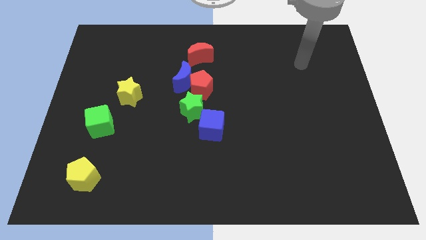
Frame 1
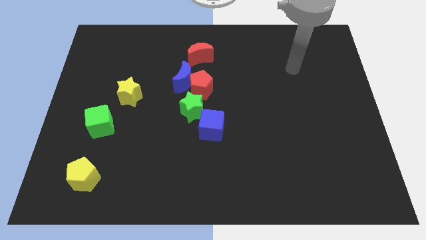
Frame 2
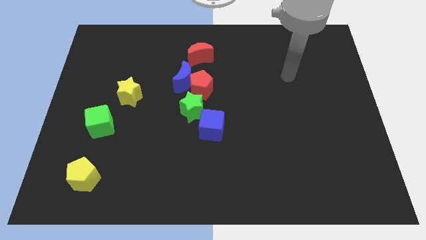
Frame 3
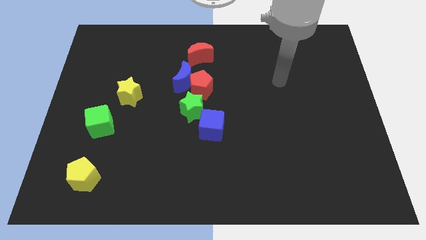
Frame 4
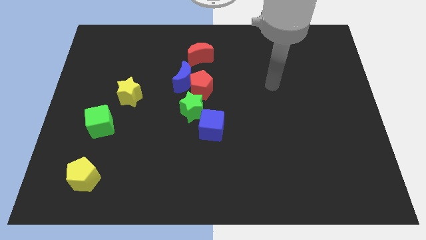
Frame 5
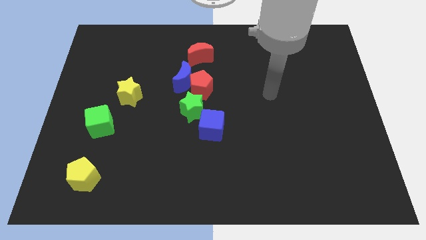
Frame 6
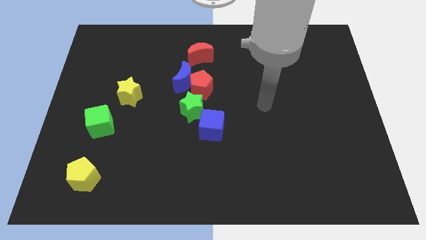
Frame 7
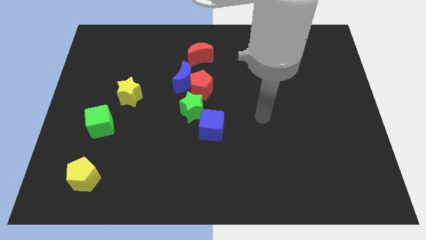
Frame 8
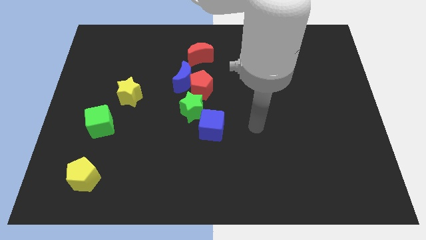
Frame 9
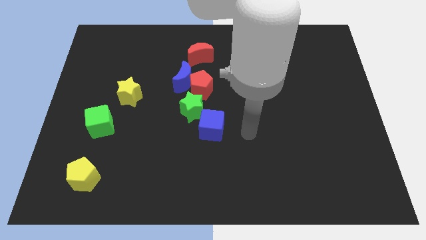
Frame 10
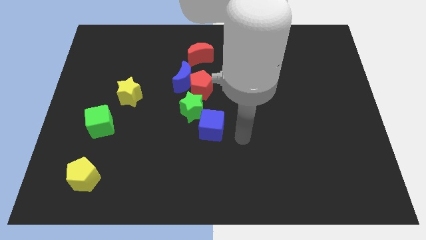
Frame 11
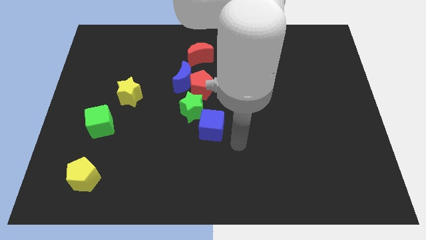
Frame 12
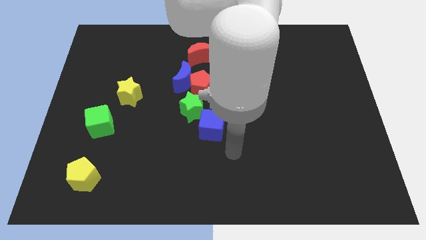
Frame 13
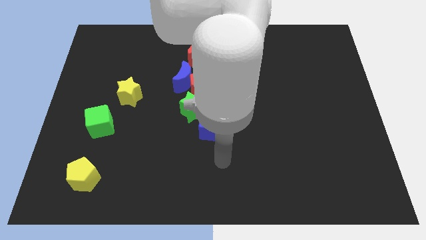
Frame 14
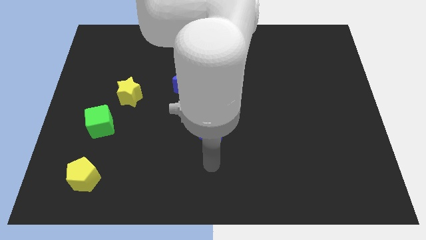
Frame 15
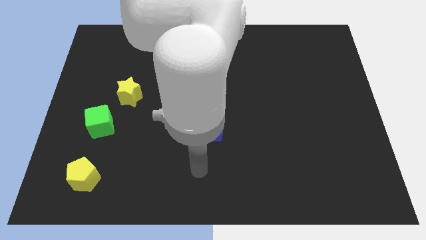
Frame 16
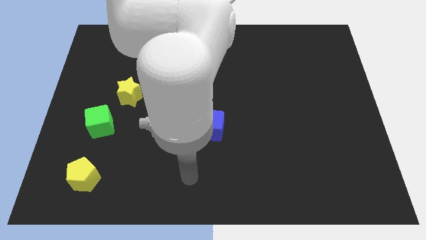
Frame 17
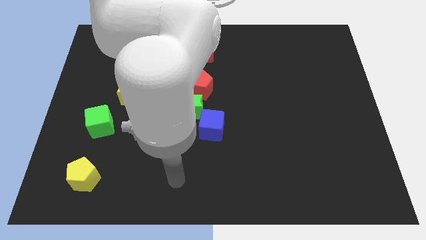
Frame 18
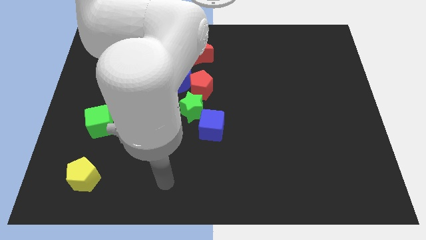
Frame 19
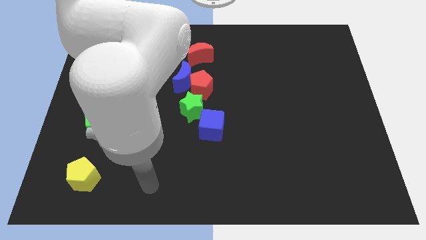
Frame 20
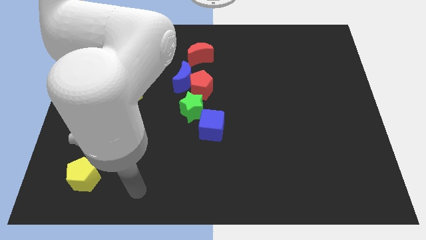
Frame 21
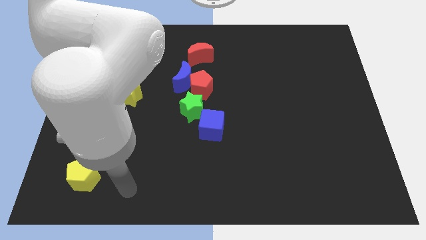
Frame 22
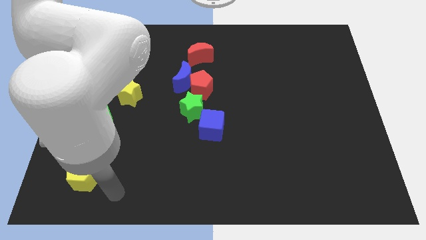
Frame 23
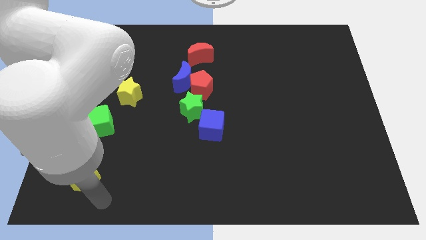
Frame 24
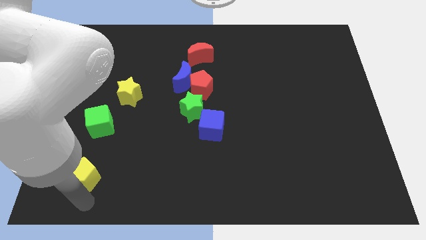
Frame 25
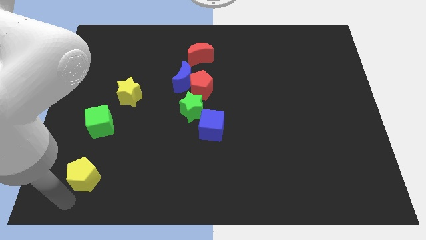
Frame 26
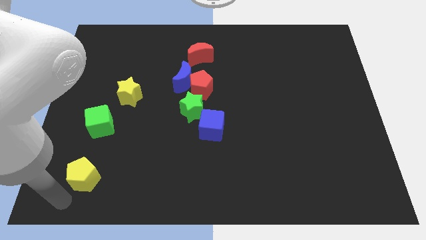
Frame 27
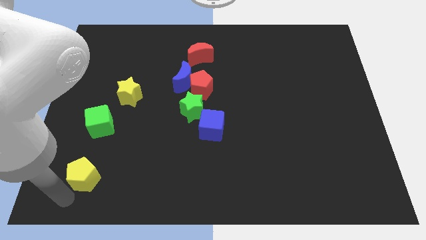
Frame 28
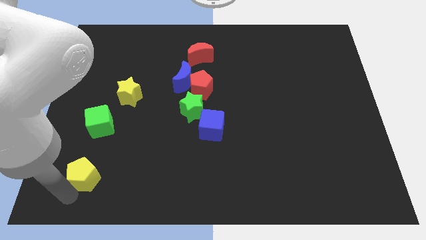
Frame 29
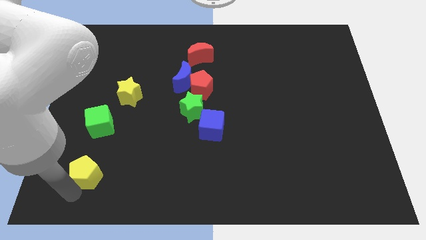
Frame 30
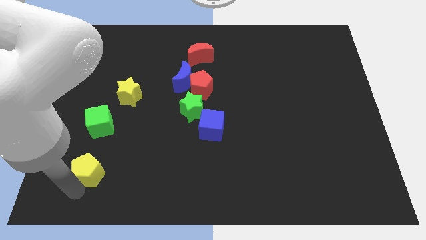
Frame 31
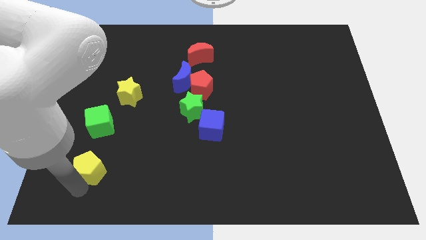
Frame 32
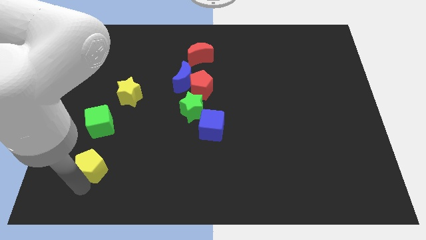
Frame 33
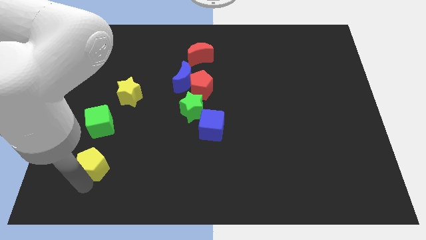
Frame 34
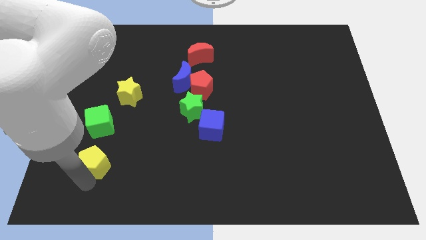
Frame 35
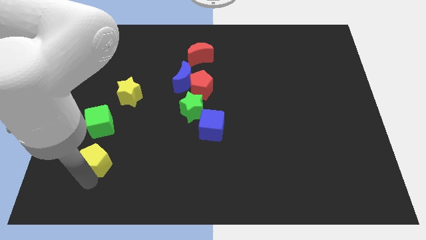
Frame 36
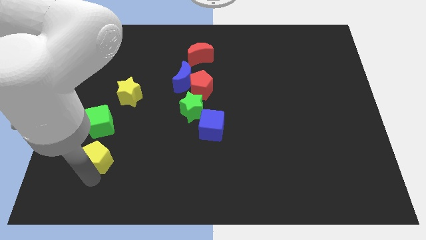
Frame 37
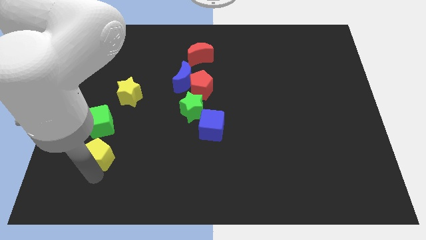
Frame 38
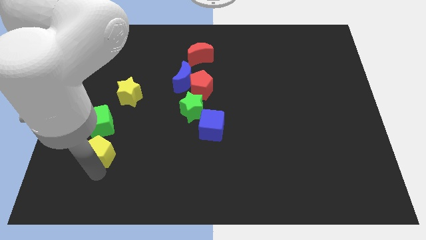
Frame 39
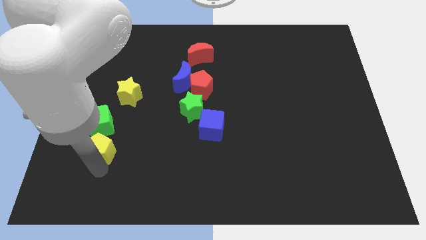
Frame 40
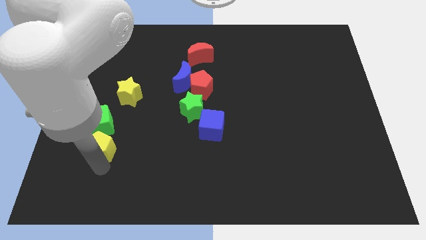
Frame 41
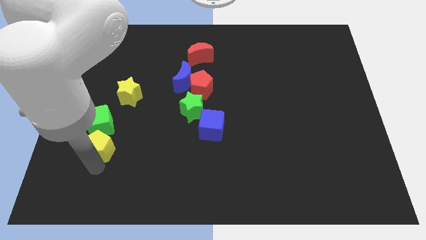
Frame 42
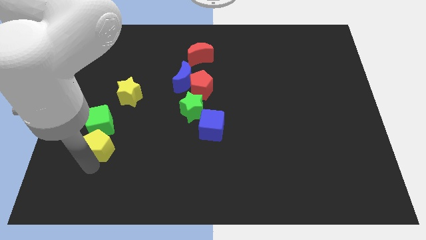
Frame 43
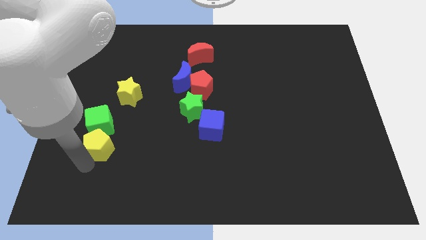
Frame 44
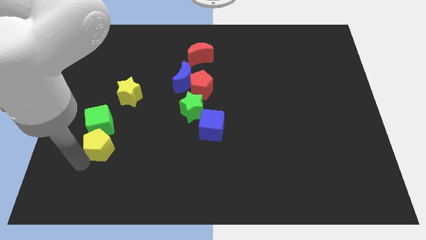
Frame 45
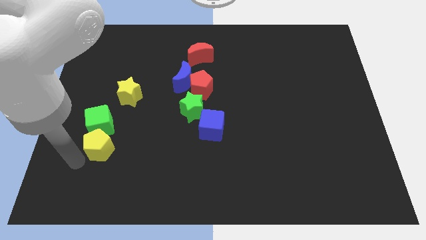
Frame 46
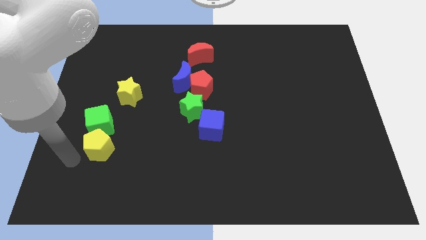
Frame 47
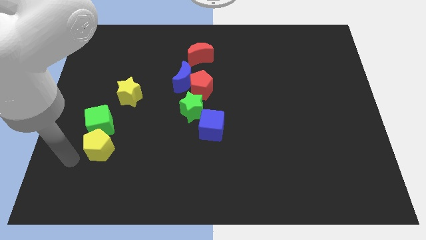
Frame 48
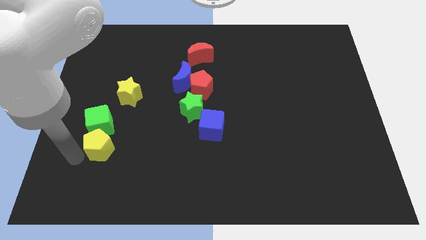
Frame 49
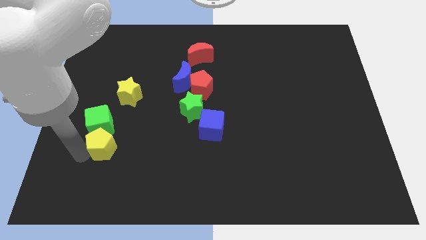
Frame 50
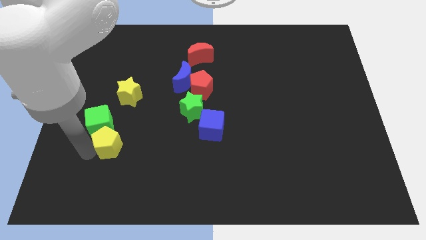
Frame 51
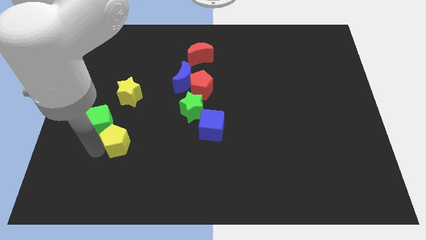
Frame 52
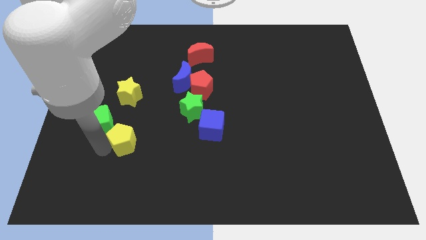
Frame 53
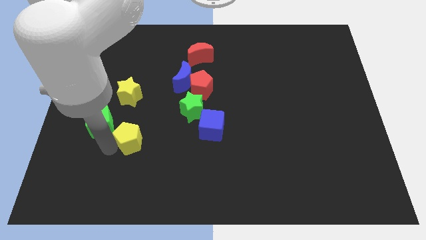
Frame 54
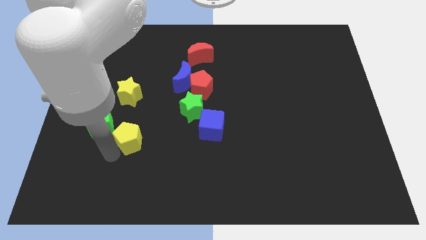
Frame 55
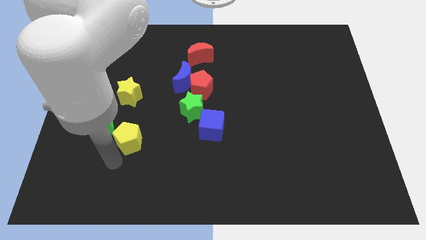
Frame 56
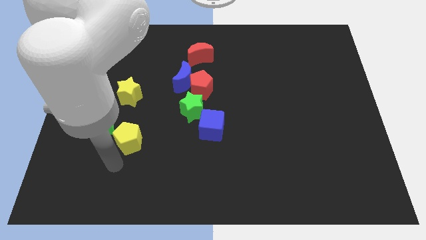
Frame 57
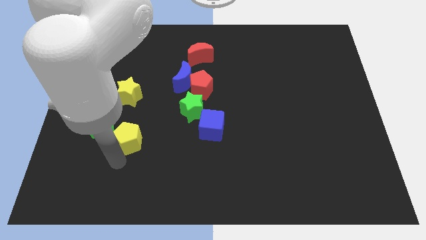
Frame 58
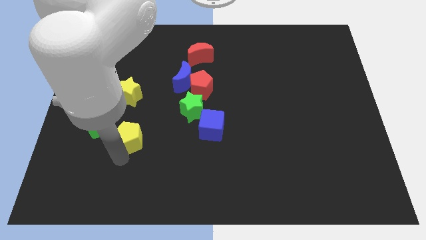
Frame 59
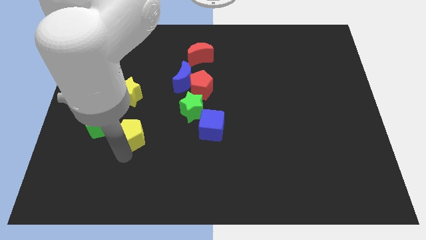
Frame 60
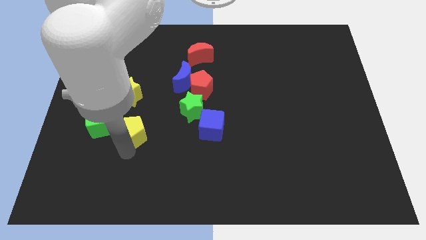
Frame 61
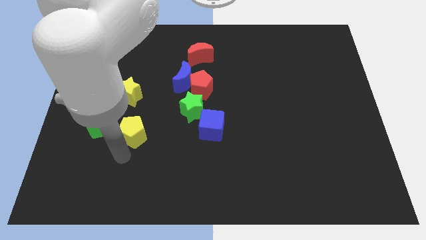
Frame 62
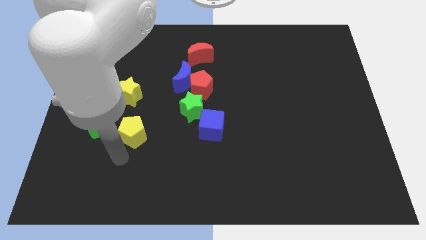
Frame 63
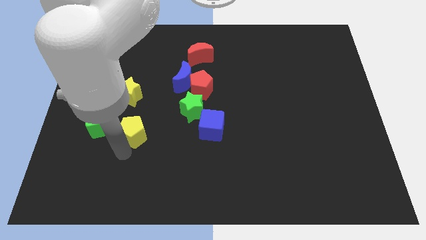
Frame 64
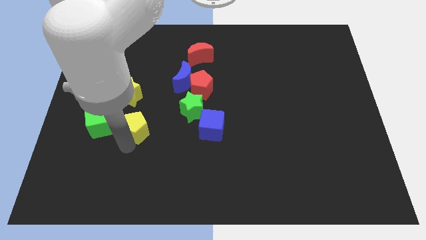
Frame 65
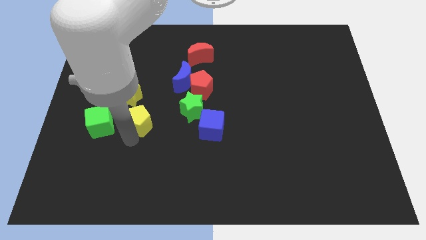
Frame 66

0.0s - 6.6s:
push the yellow pentagon left of the green star
